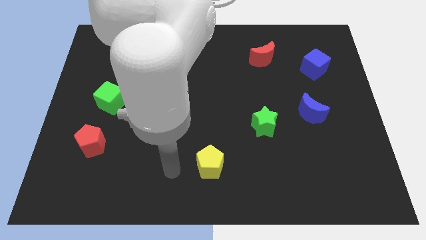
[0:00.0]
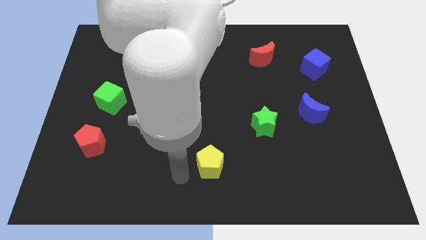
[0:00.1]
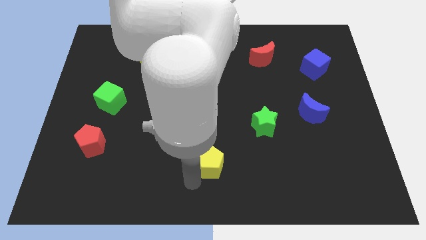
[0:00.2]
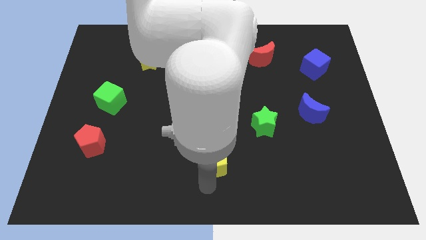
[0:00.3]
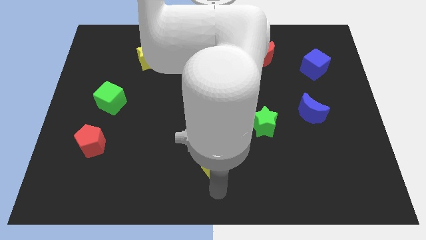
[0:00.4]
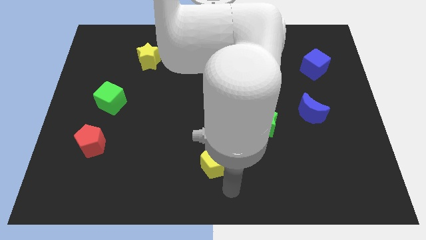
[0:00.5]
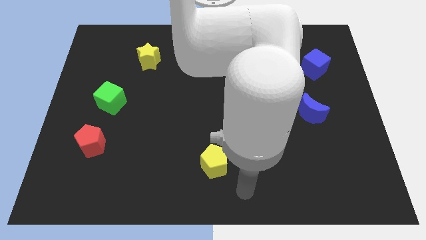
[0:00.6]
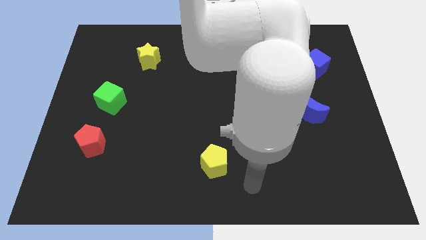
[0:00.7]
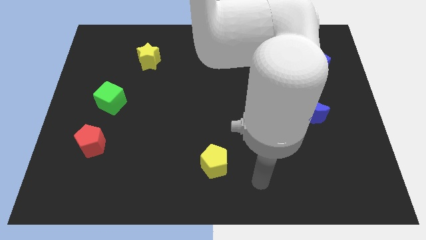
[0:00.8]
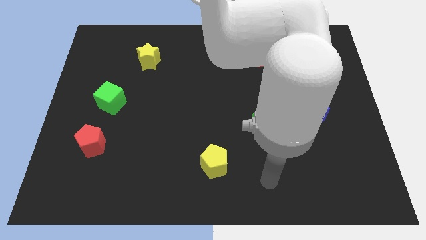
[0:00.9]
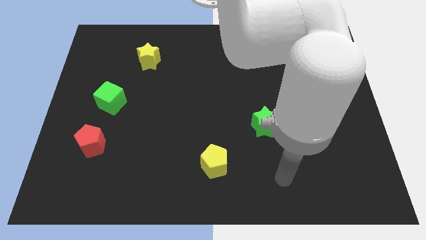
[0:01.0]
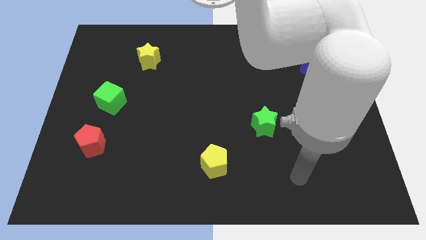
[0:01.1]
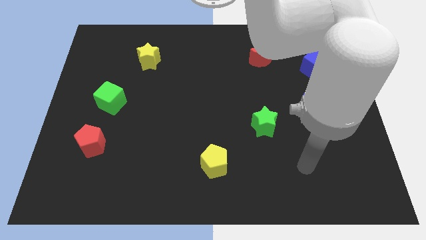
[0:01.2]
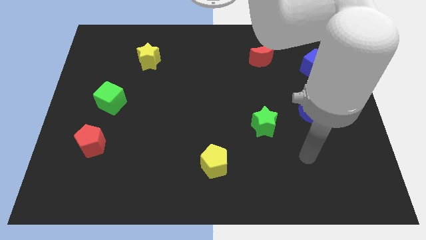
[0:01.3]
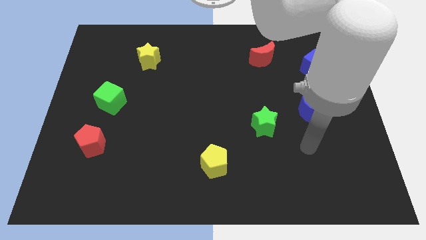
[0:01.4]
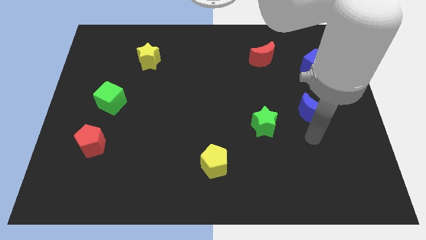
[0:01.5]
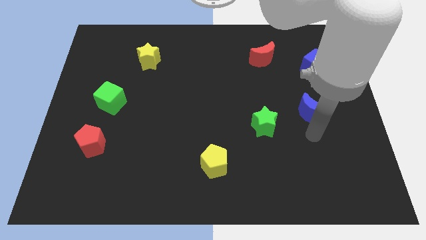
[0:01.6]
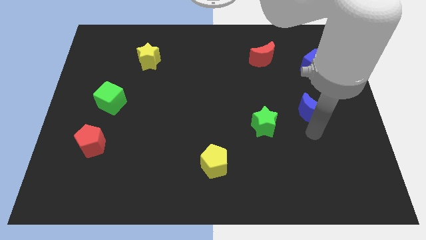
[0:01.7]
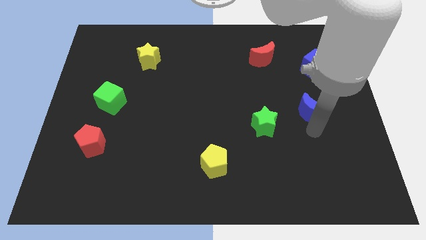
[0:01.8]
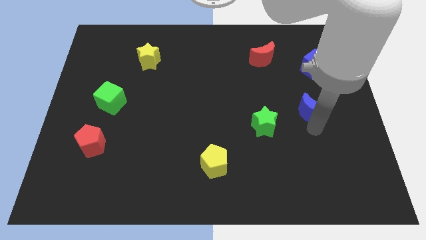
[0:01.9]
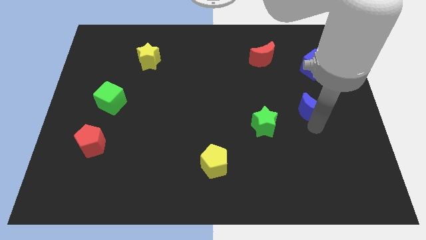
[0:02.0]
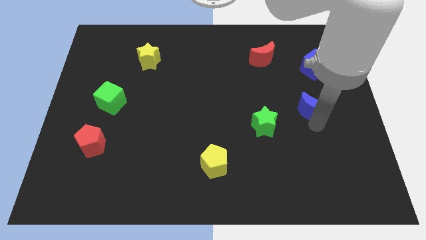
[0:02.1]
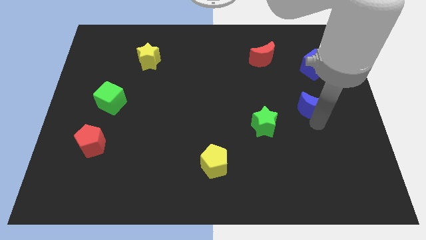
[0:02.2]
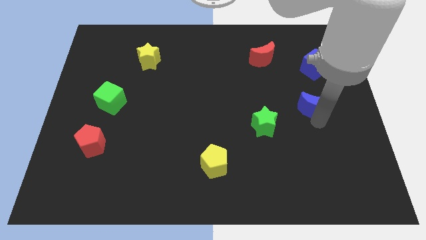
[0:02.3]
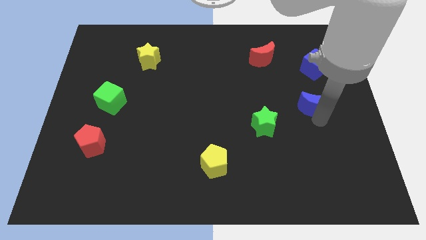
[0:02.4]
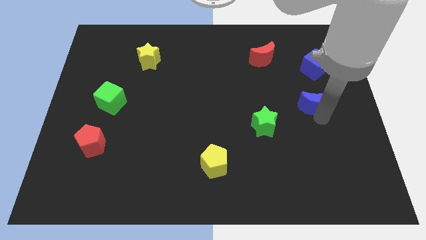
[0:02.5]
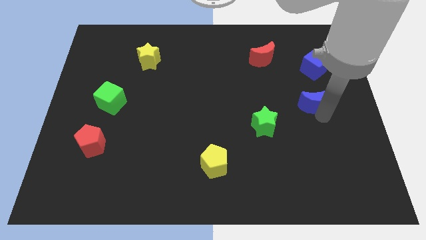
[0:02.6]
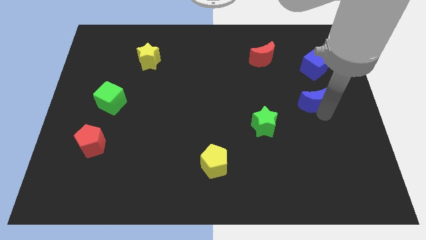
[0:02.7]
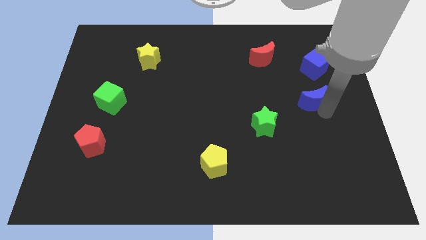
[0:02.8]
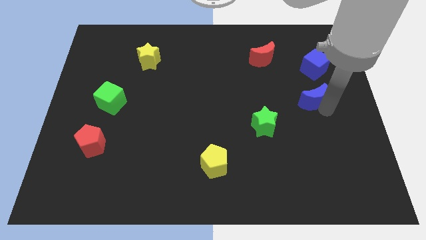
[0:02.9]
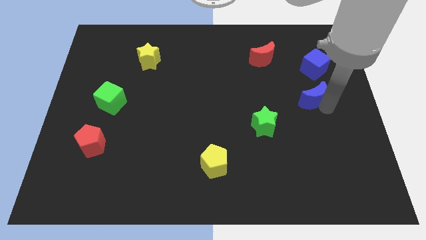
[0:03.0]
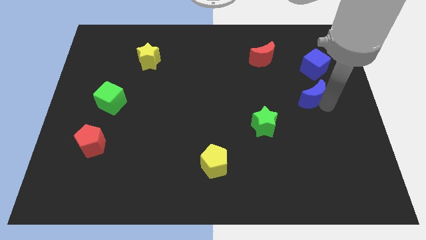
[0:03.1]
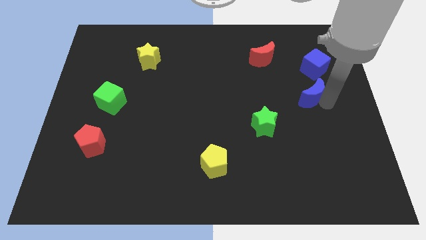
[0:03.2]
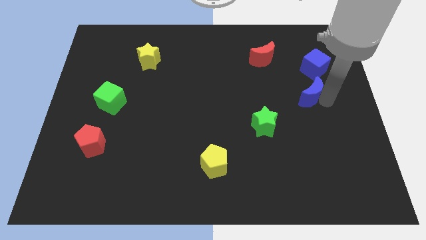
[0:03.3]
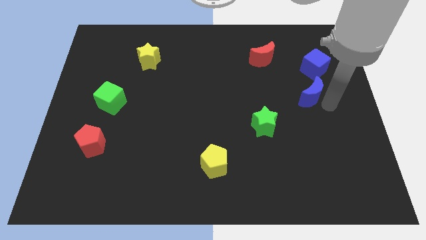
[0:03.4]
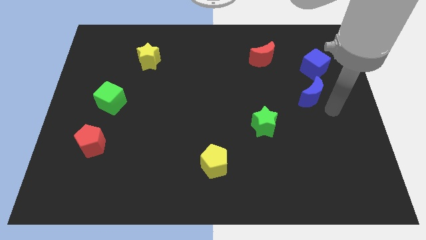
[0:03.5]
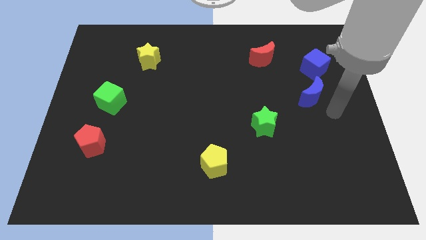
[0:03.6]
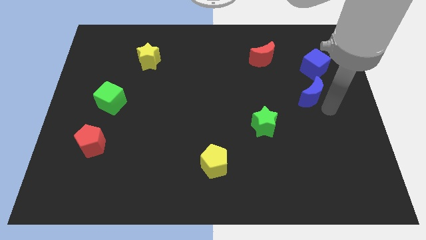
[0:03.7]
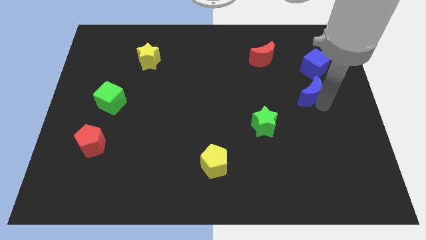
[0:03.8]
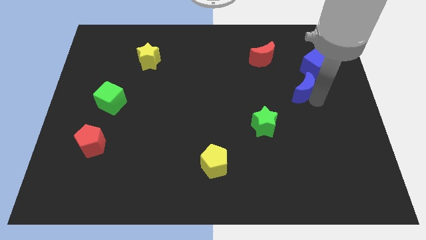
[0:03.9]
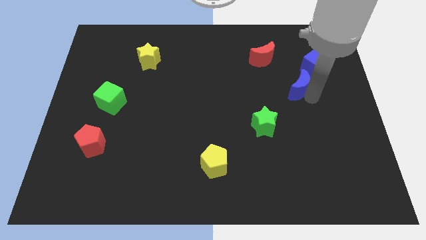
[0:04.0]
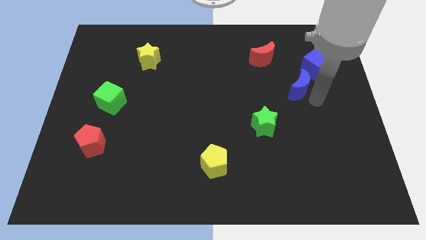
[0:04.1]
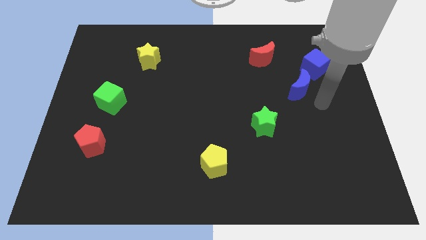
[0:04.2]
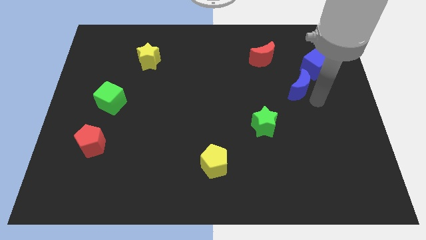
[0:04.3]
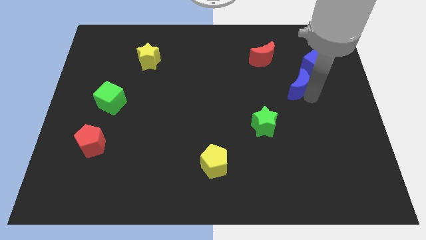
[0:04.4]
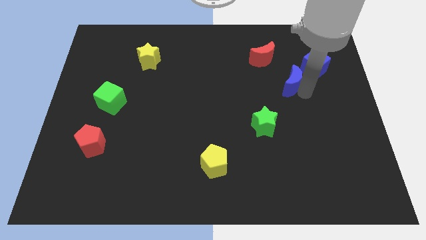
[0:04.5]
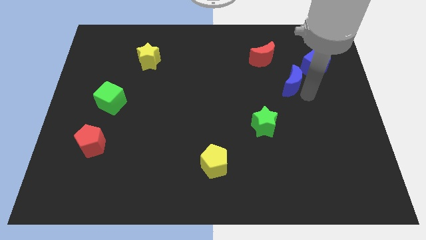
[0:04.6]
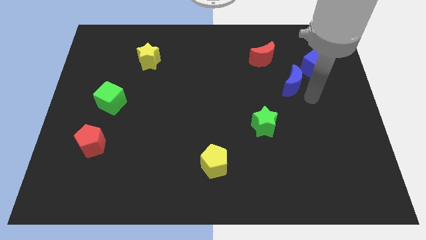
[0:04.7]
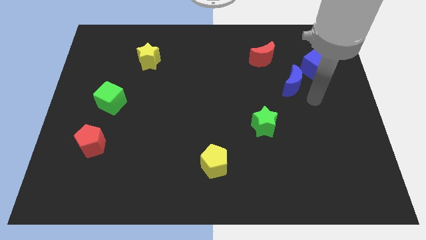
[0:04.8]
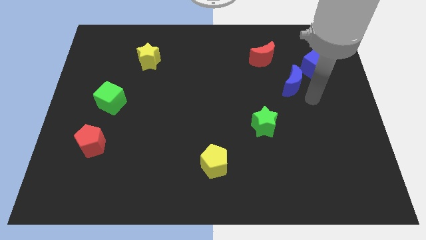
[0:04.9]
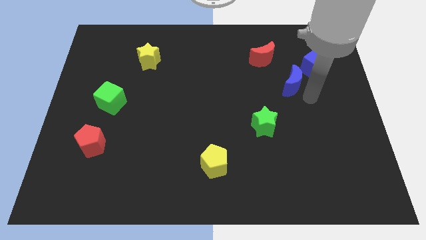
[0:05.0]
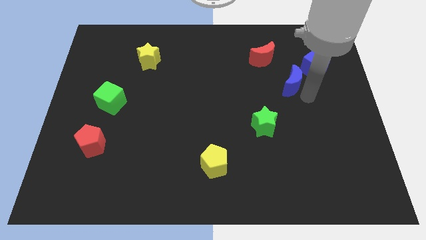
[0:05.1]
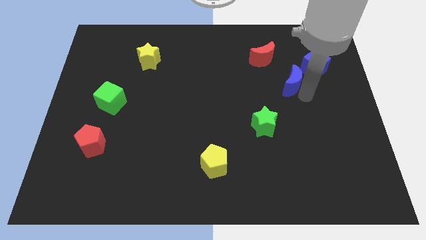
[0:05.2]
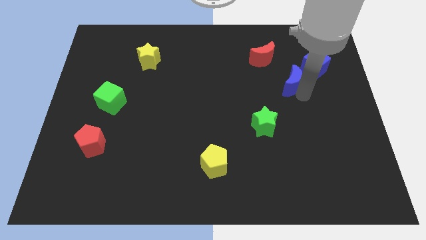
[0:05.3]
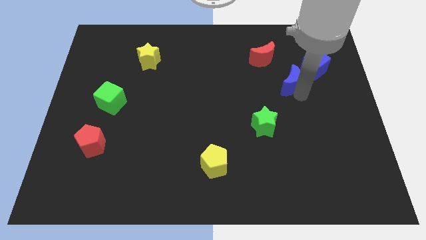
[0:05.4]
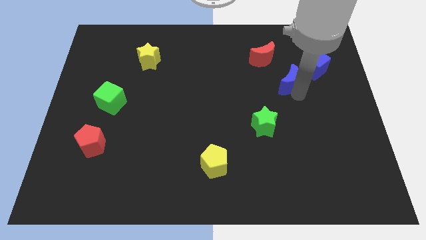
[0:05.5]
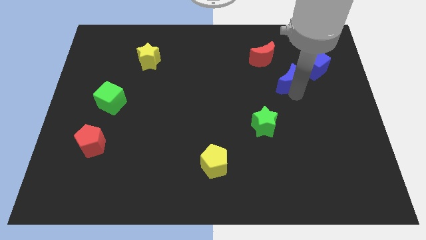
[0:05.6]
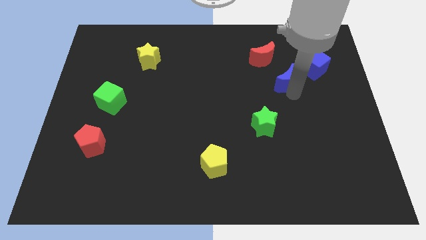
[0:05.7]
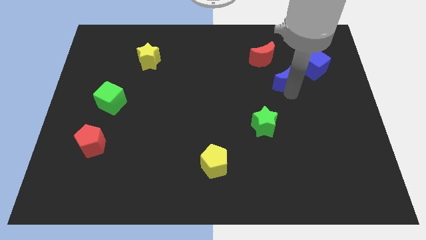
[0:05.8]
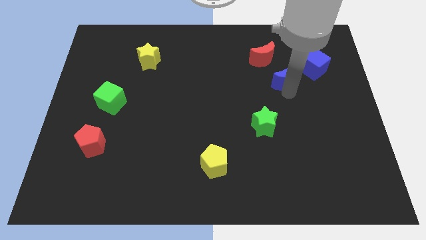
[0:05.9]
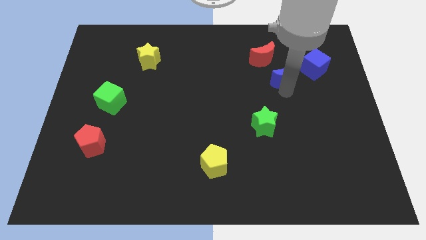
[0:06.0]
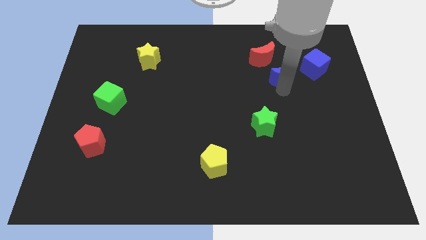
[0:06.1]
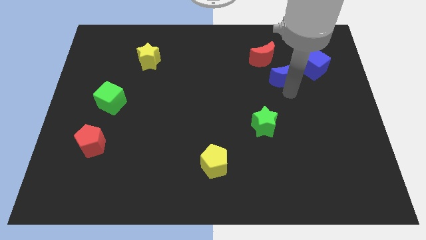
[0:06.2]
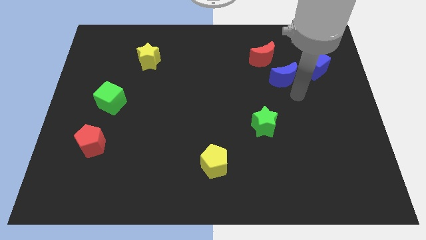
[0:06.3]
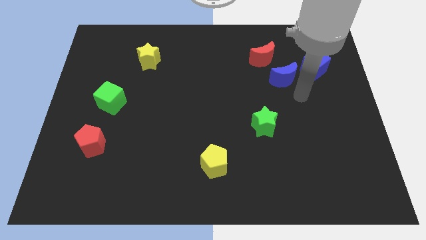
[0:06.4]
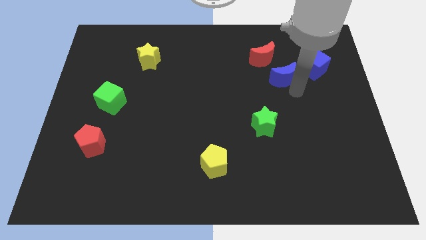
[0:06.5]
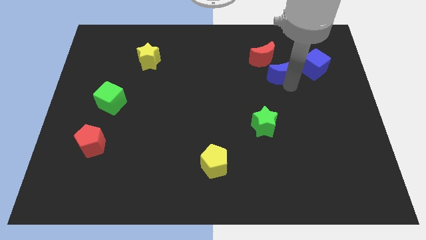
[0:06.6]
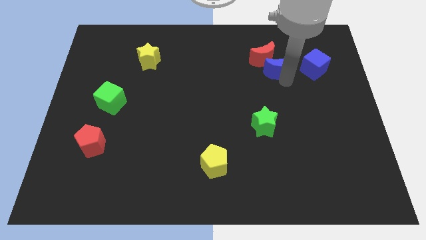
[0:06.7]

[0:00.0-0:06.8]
move the blue moon close to the red moon

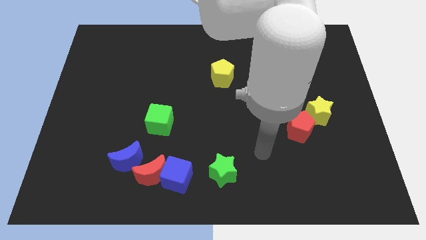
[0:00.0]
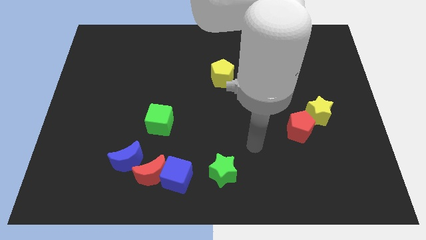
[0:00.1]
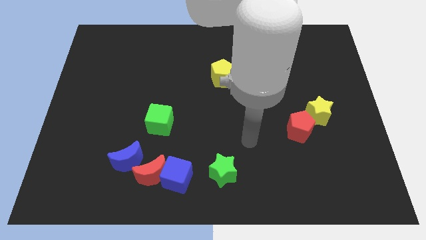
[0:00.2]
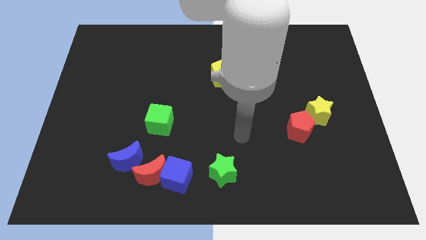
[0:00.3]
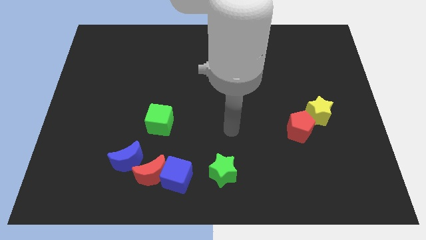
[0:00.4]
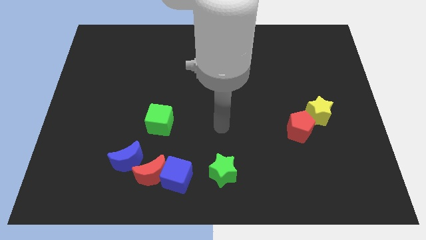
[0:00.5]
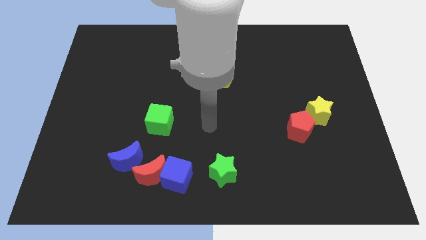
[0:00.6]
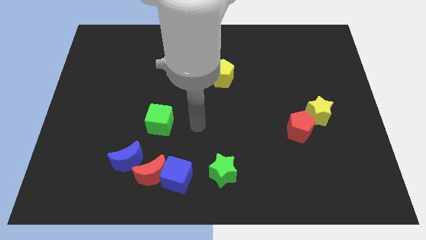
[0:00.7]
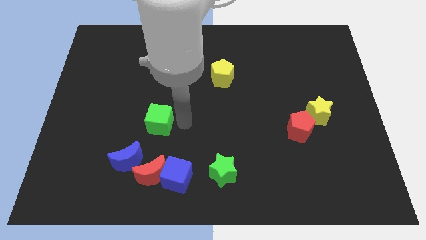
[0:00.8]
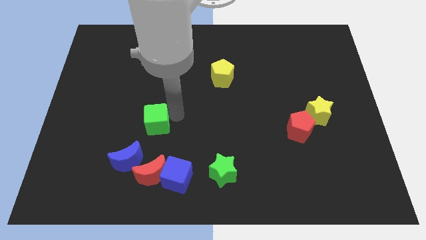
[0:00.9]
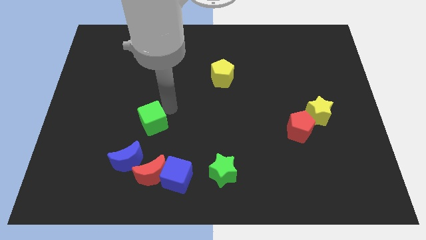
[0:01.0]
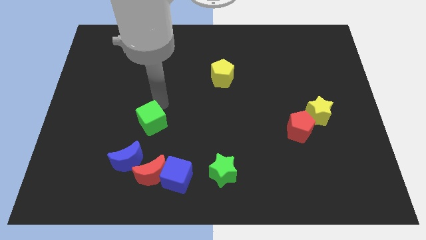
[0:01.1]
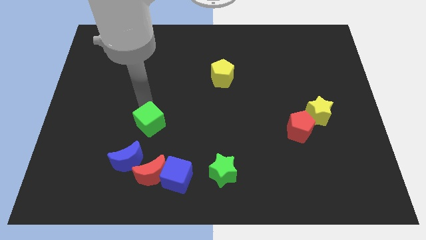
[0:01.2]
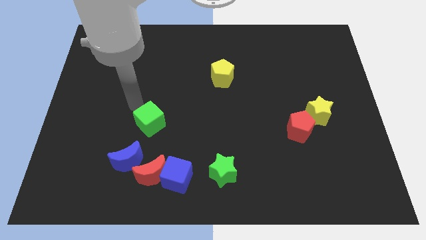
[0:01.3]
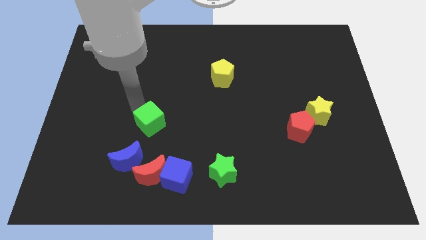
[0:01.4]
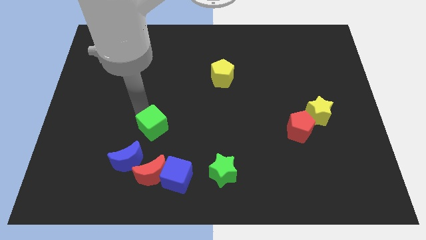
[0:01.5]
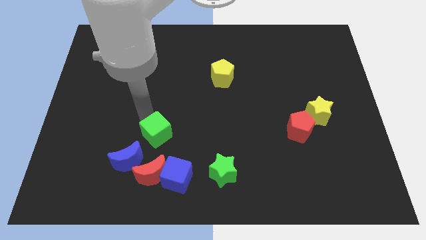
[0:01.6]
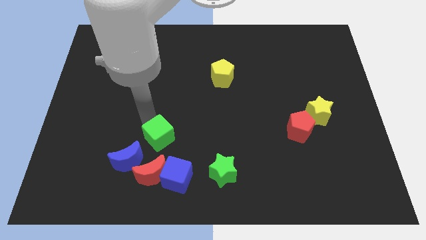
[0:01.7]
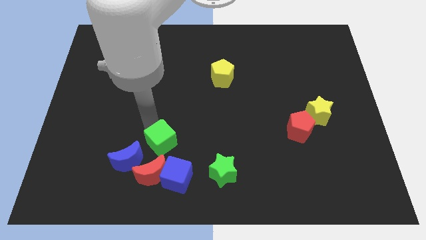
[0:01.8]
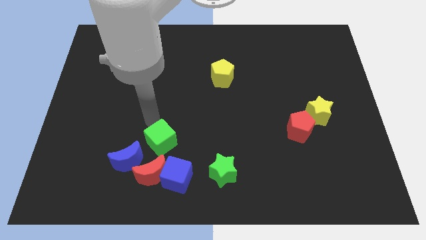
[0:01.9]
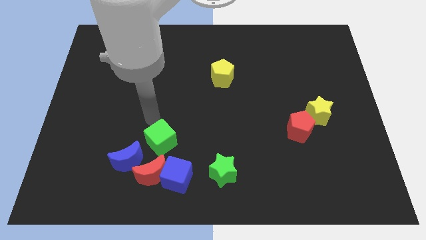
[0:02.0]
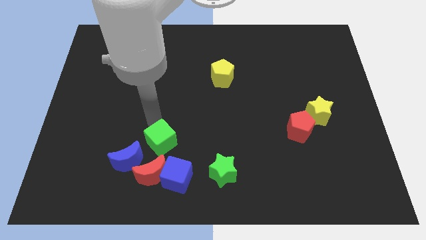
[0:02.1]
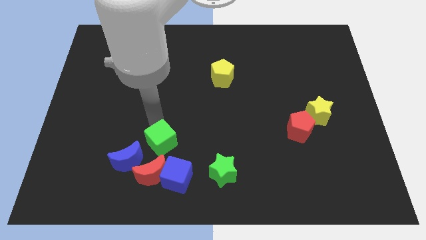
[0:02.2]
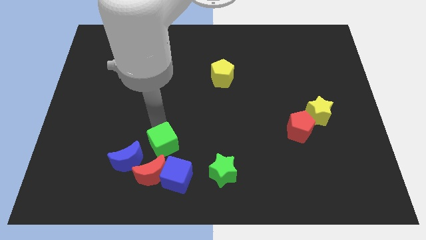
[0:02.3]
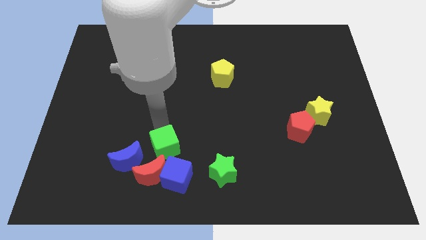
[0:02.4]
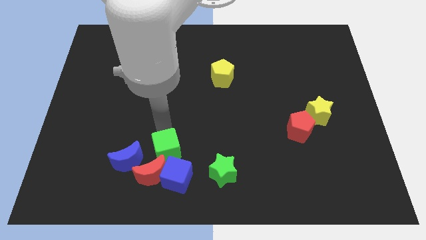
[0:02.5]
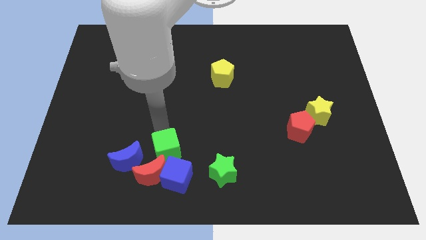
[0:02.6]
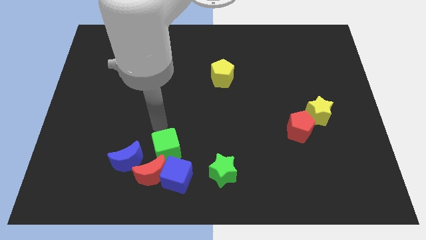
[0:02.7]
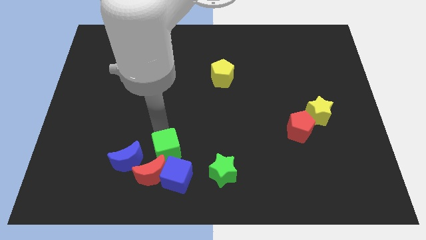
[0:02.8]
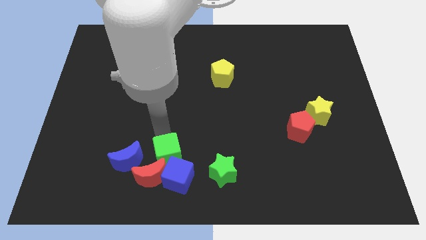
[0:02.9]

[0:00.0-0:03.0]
push the green cube next to the blue cube
